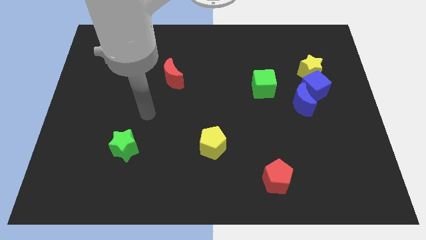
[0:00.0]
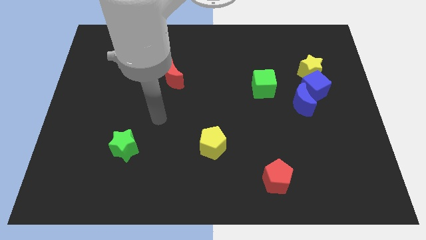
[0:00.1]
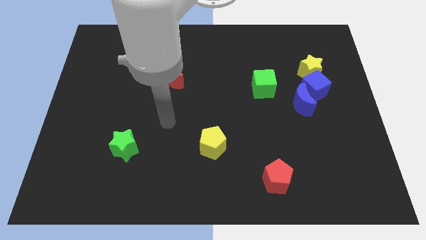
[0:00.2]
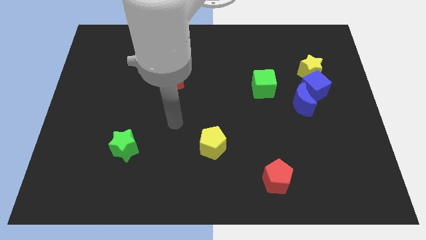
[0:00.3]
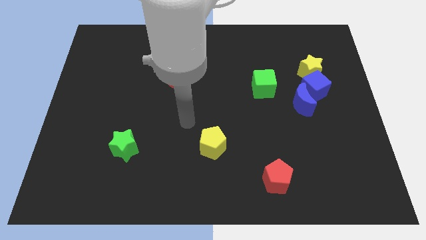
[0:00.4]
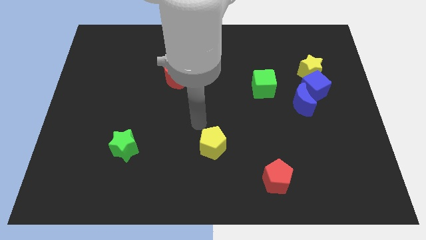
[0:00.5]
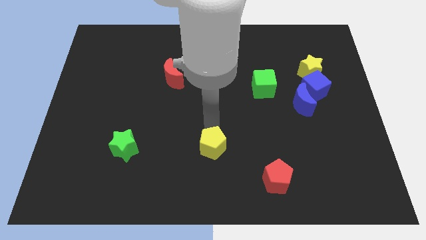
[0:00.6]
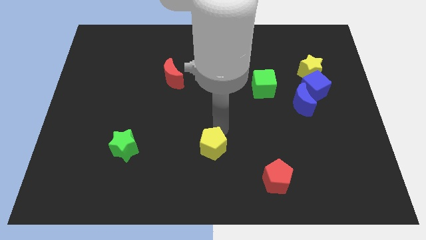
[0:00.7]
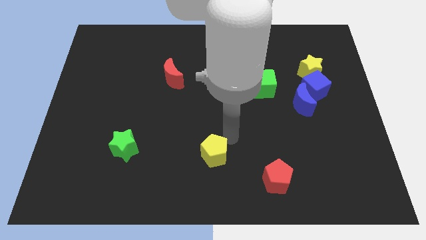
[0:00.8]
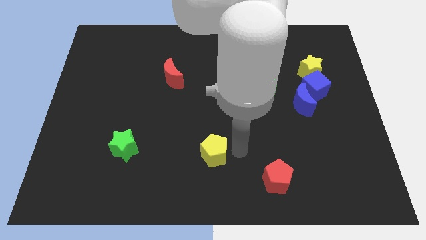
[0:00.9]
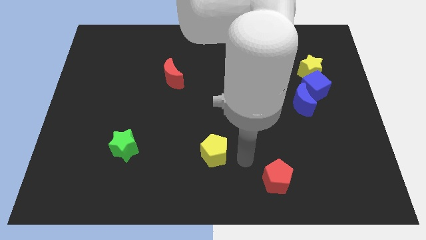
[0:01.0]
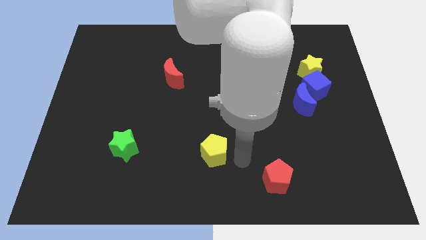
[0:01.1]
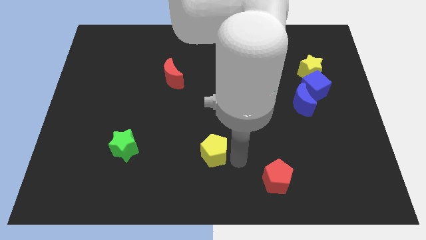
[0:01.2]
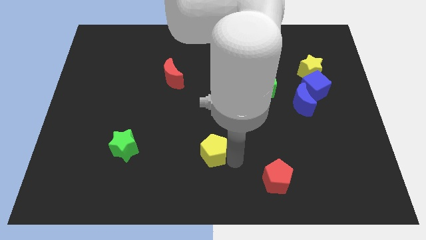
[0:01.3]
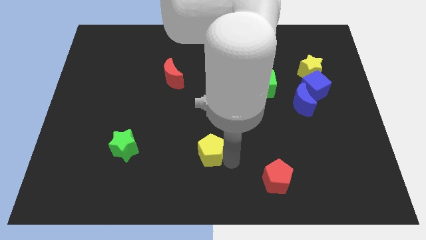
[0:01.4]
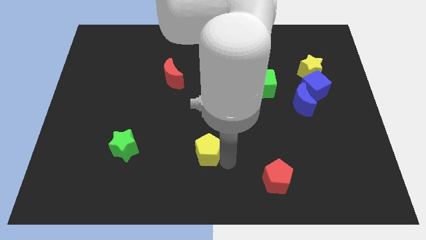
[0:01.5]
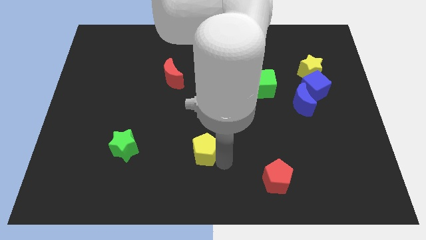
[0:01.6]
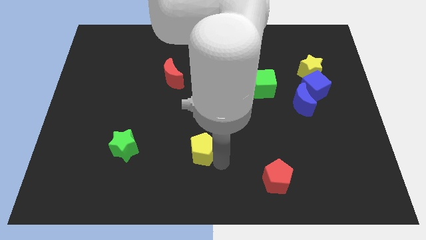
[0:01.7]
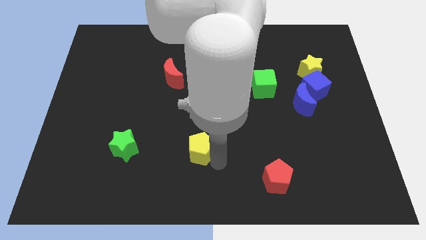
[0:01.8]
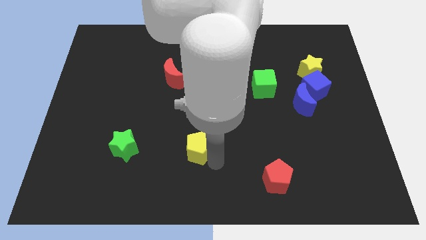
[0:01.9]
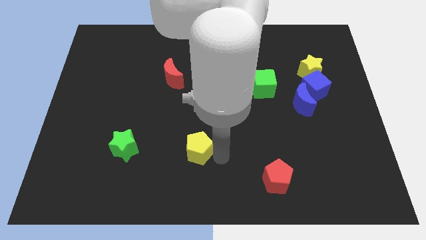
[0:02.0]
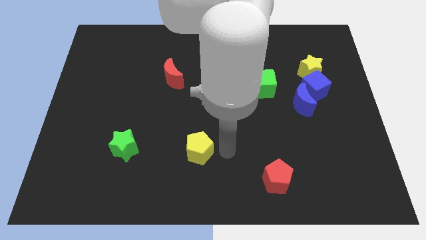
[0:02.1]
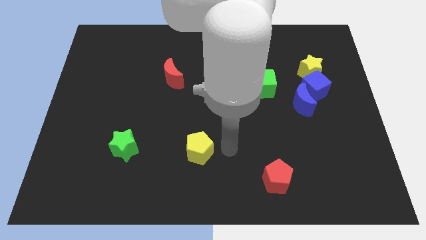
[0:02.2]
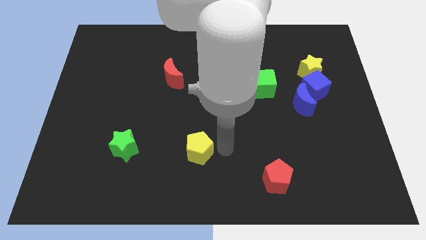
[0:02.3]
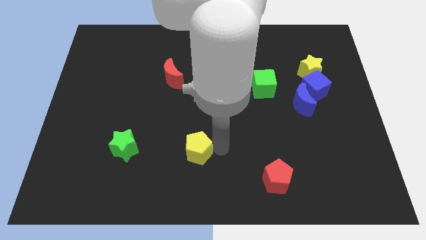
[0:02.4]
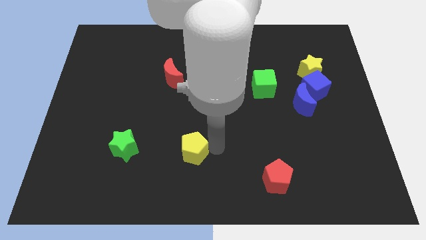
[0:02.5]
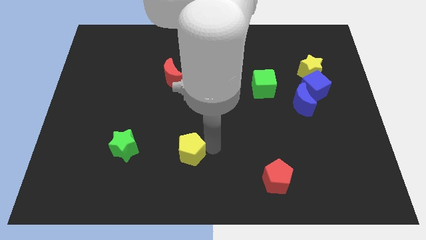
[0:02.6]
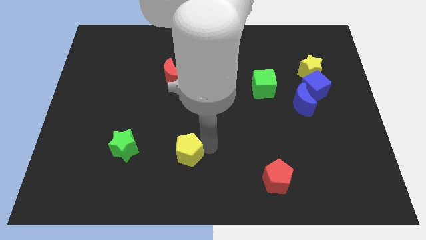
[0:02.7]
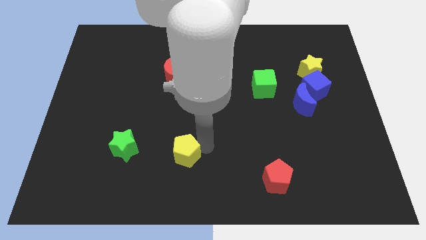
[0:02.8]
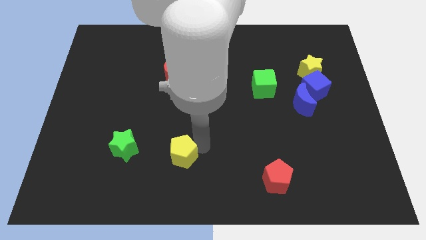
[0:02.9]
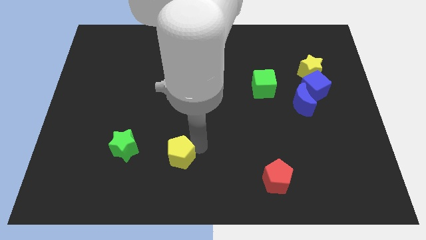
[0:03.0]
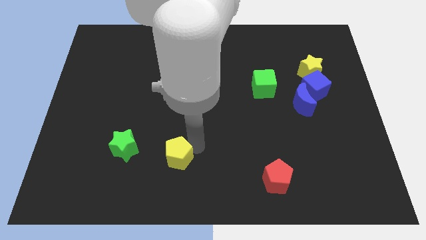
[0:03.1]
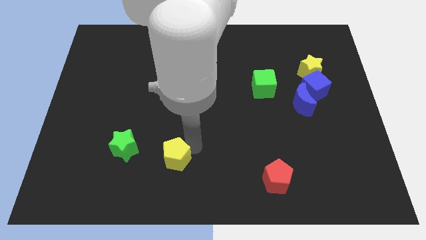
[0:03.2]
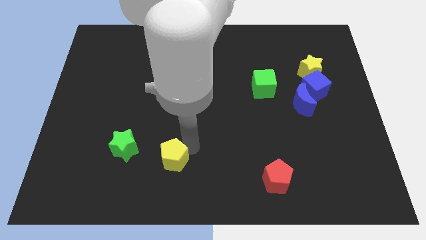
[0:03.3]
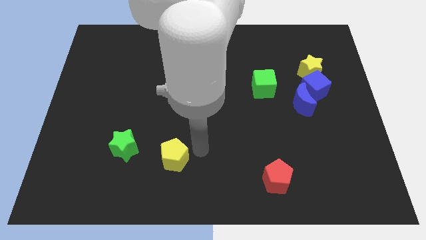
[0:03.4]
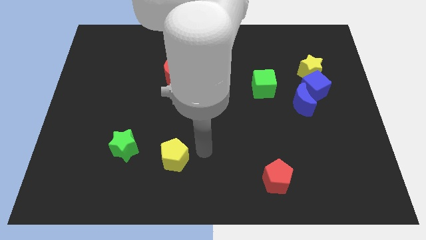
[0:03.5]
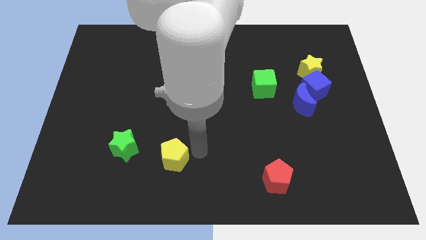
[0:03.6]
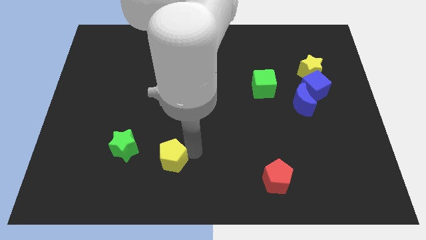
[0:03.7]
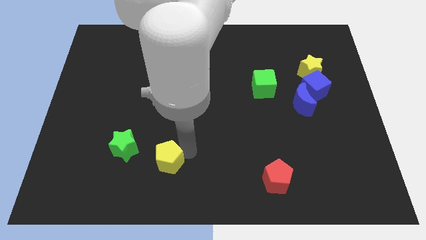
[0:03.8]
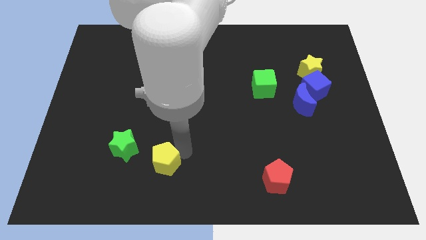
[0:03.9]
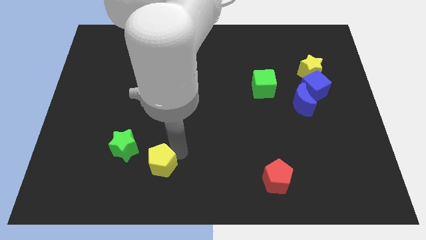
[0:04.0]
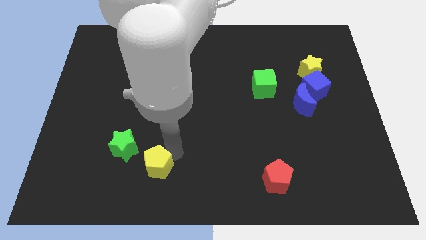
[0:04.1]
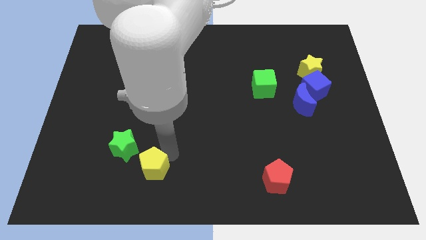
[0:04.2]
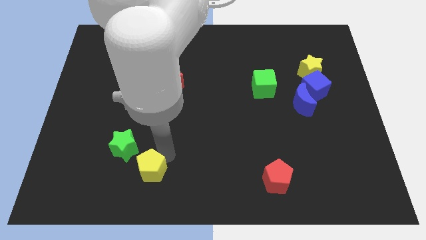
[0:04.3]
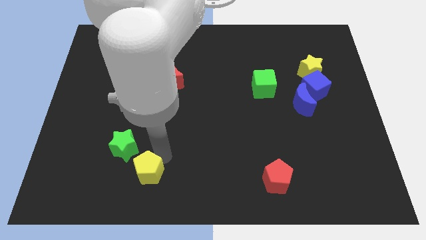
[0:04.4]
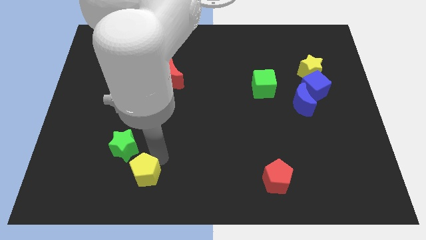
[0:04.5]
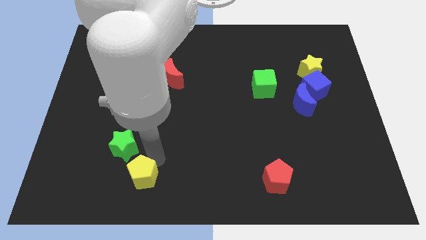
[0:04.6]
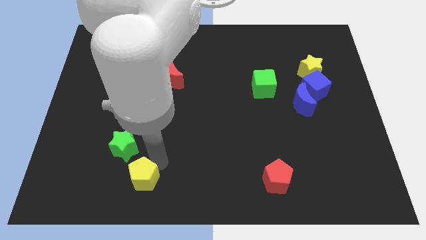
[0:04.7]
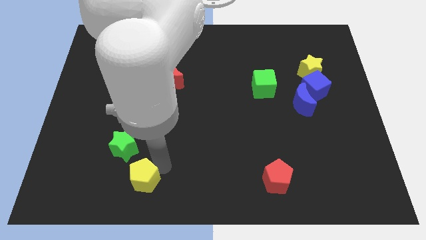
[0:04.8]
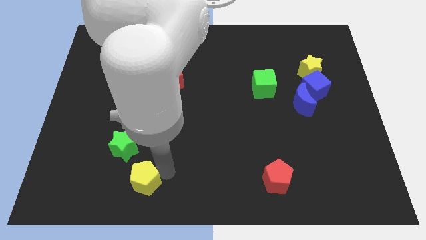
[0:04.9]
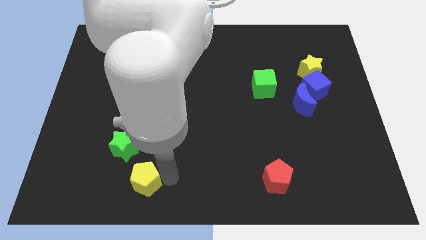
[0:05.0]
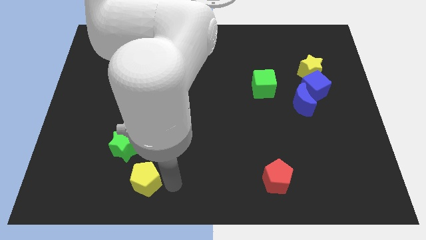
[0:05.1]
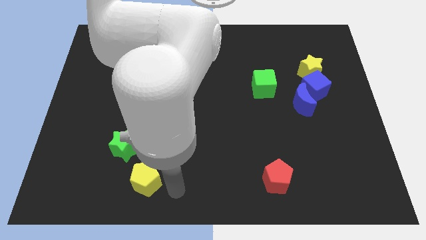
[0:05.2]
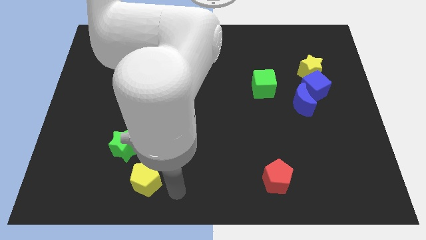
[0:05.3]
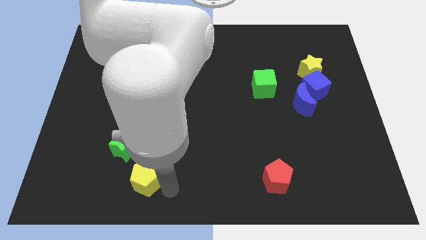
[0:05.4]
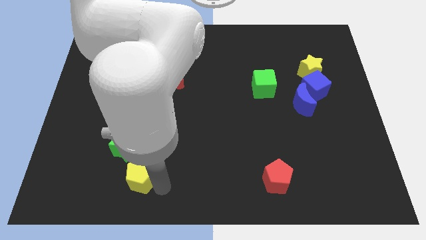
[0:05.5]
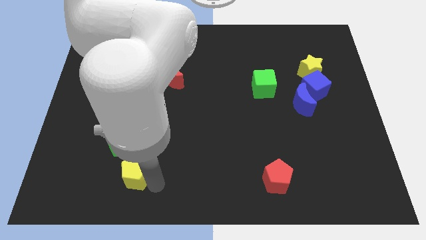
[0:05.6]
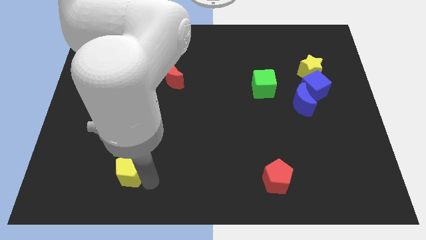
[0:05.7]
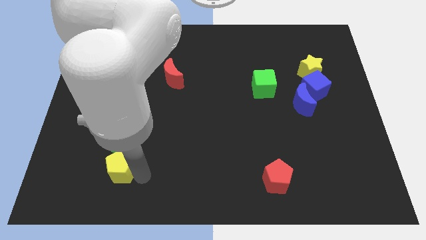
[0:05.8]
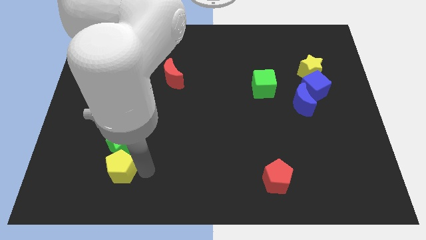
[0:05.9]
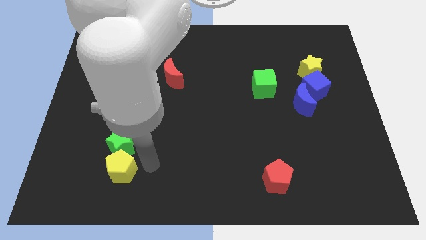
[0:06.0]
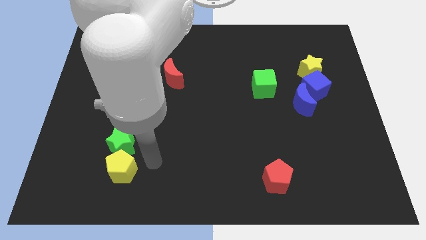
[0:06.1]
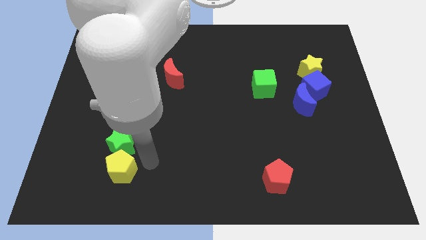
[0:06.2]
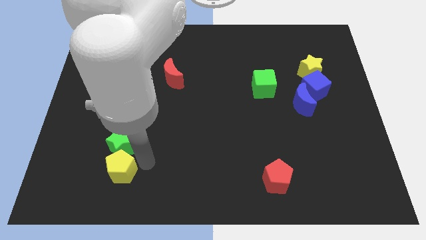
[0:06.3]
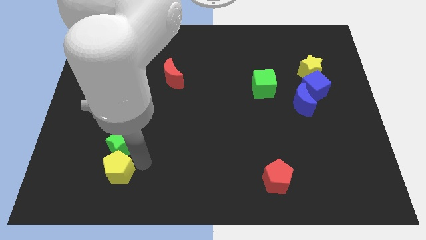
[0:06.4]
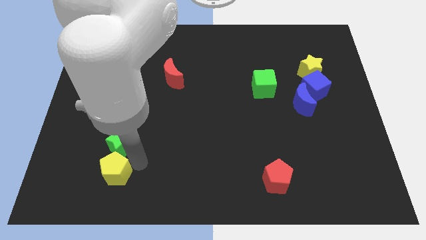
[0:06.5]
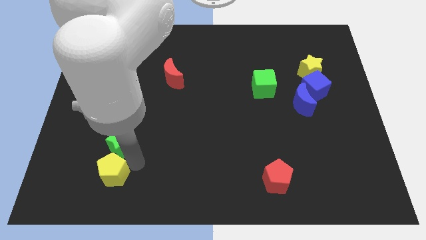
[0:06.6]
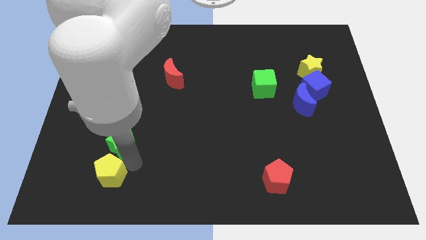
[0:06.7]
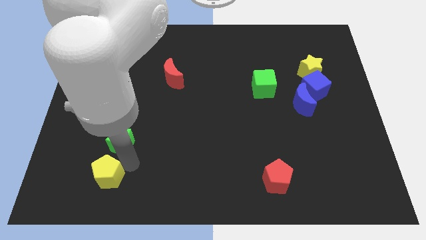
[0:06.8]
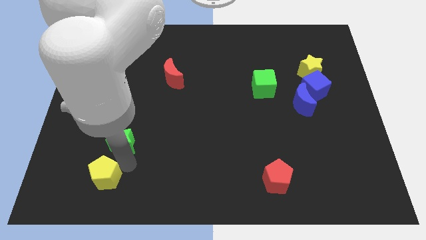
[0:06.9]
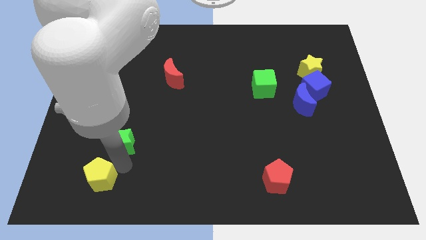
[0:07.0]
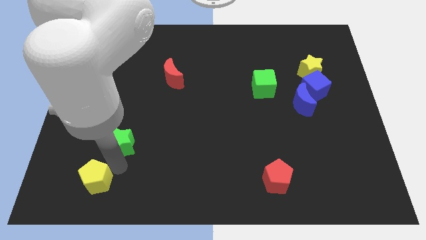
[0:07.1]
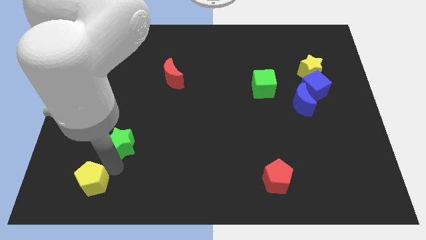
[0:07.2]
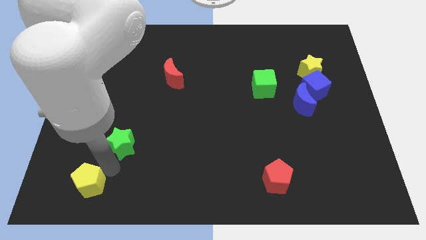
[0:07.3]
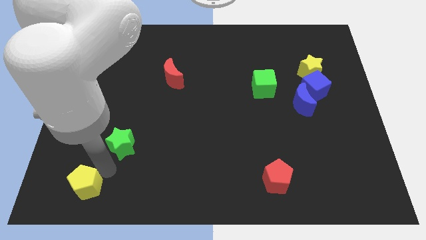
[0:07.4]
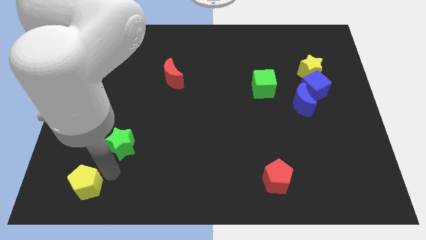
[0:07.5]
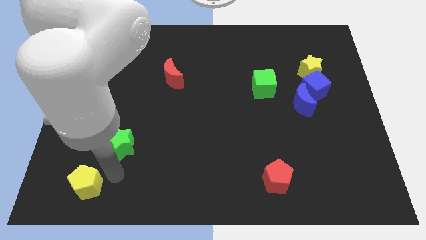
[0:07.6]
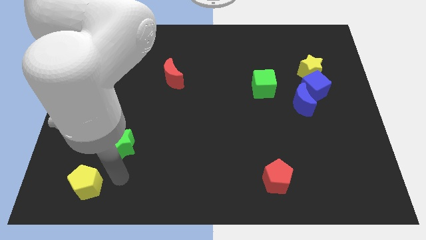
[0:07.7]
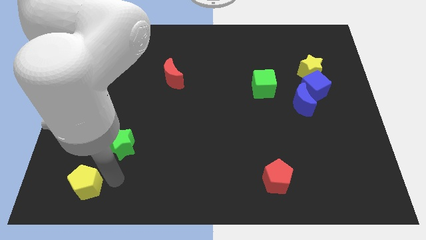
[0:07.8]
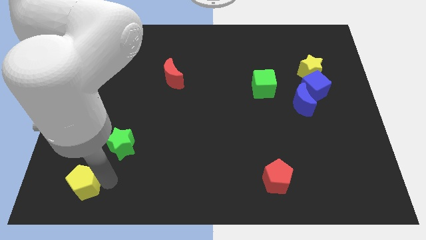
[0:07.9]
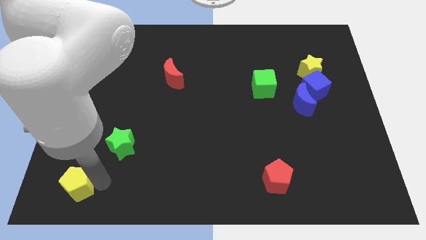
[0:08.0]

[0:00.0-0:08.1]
move the yellow pentagon to the bottom left corner
